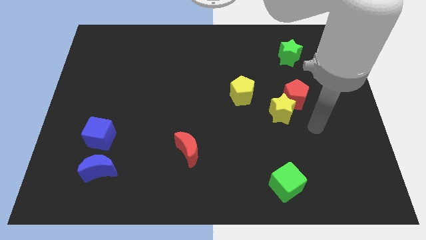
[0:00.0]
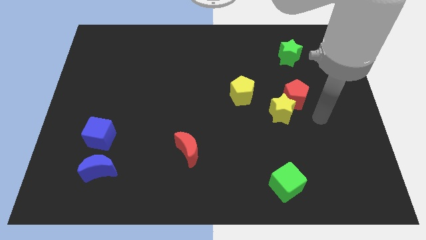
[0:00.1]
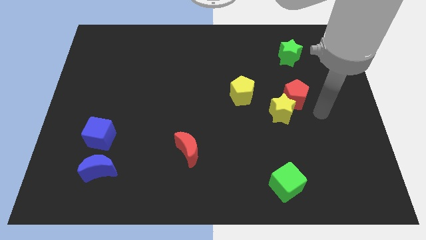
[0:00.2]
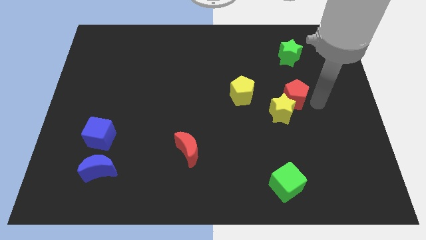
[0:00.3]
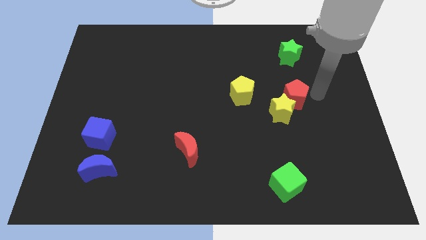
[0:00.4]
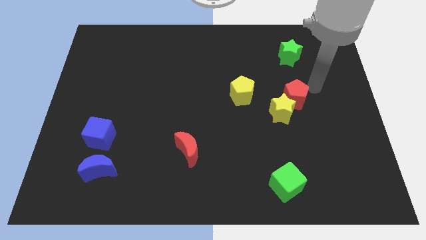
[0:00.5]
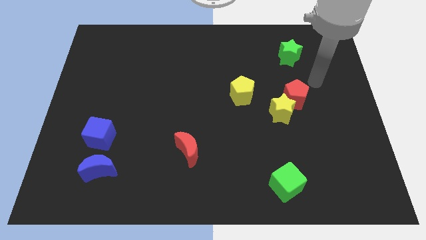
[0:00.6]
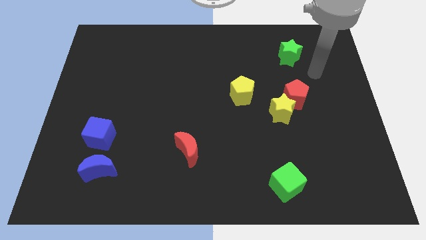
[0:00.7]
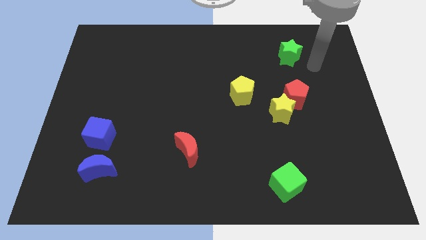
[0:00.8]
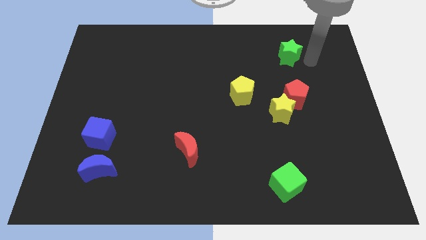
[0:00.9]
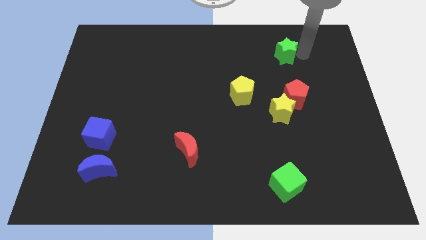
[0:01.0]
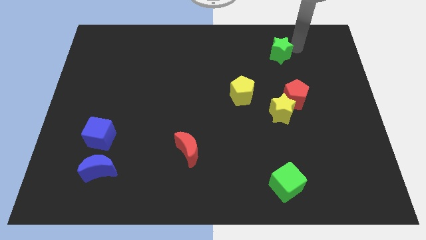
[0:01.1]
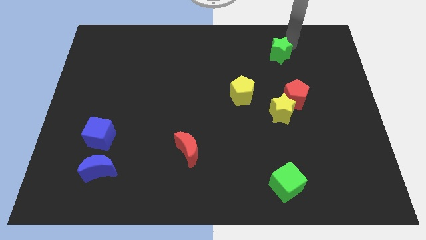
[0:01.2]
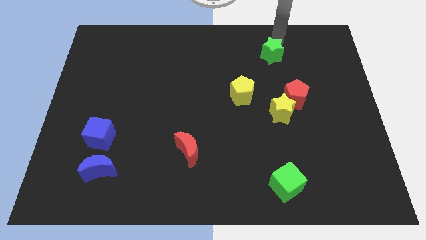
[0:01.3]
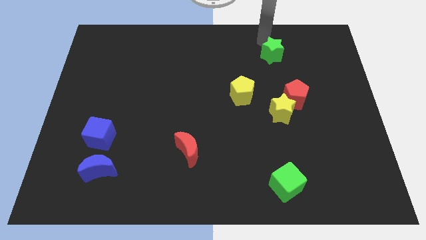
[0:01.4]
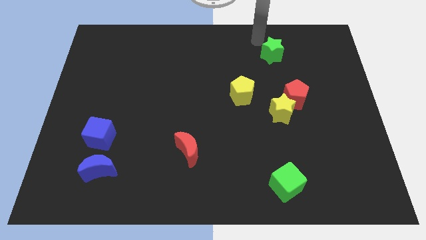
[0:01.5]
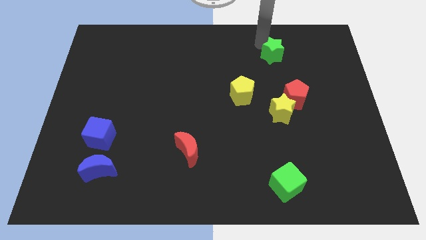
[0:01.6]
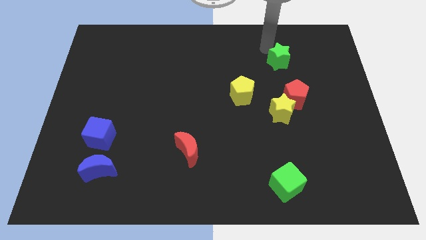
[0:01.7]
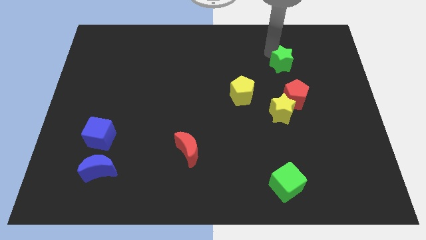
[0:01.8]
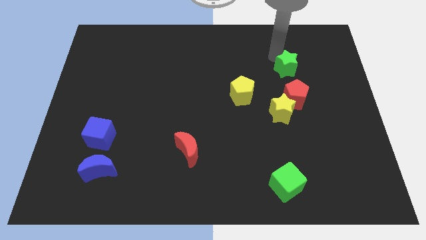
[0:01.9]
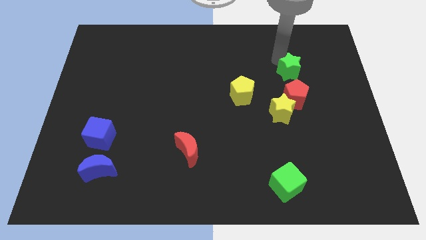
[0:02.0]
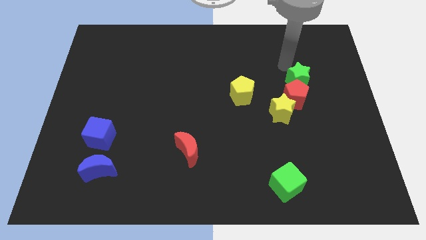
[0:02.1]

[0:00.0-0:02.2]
slide the green star down a little

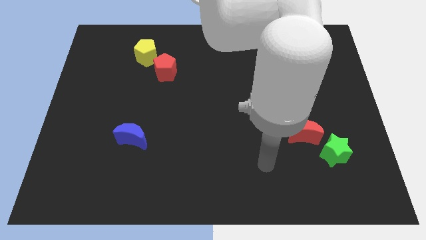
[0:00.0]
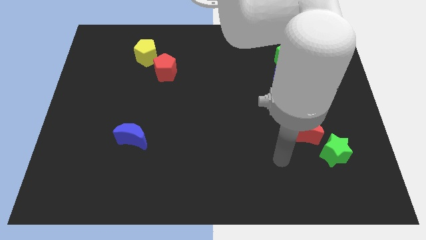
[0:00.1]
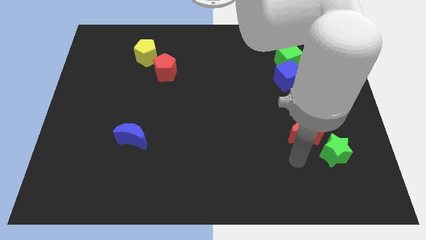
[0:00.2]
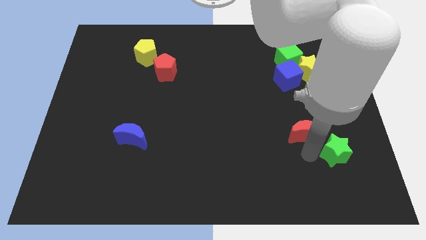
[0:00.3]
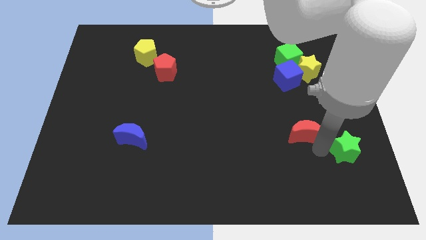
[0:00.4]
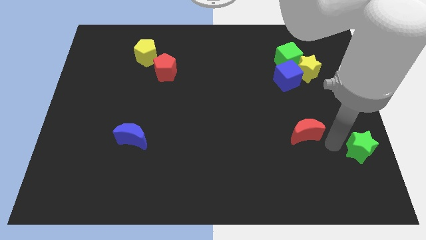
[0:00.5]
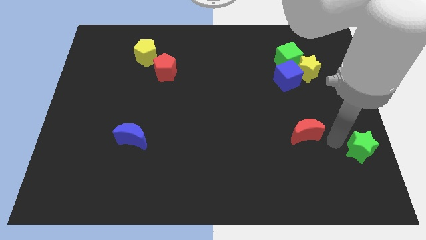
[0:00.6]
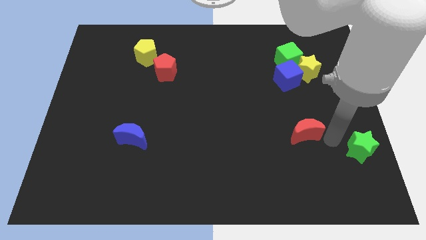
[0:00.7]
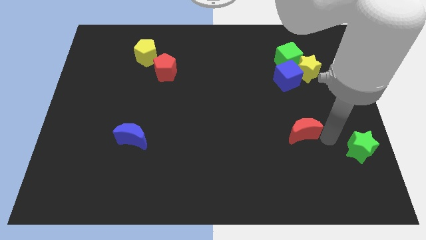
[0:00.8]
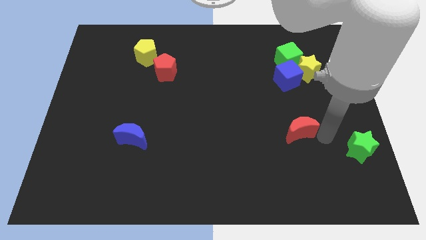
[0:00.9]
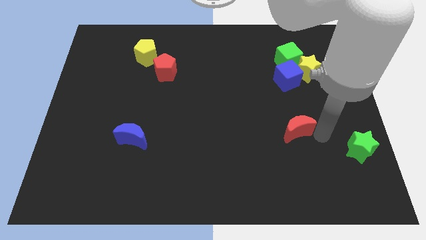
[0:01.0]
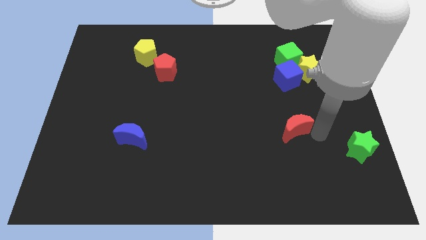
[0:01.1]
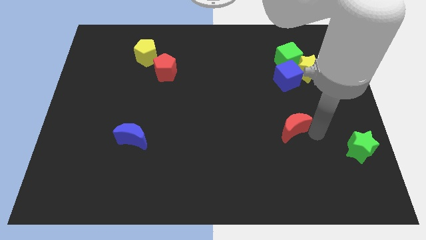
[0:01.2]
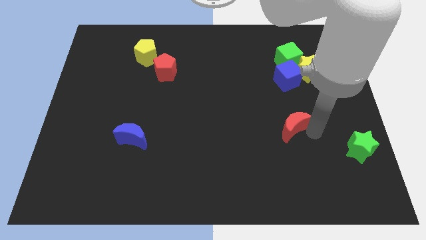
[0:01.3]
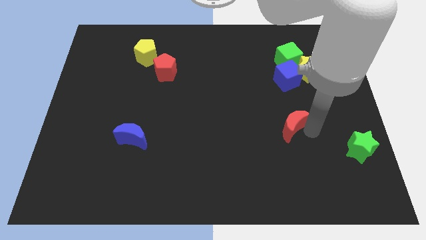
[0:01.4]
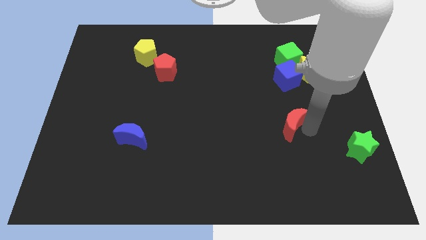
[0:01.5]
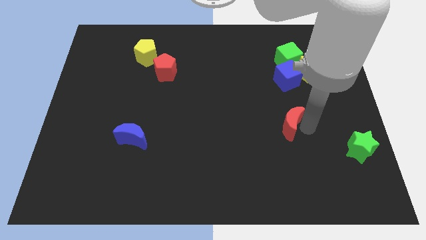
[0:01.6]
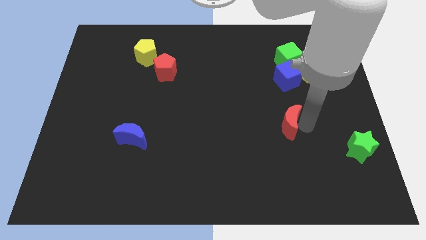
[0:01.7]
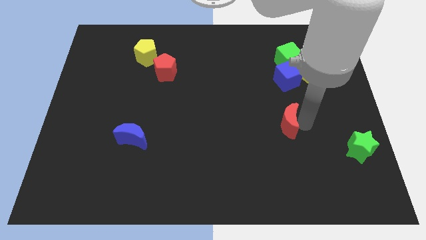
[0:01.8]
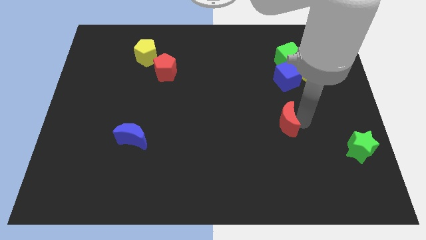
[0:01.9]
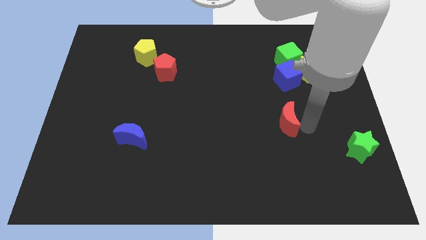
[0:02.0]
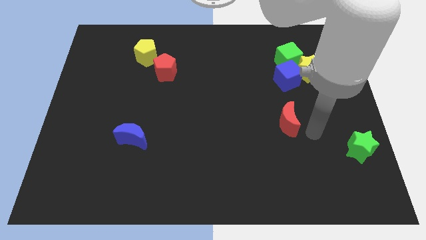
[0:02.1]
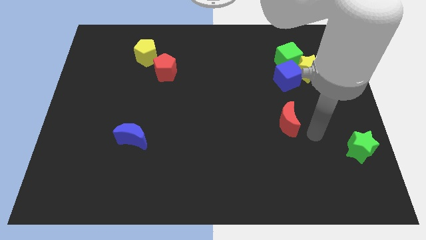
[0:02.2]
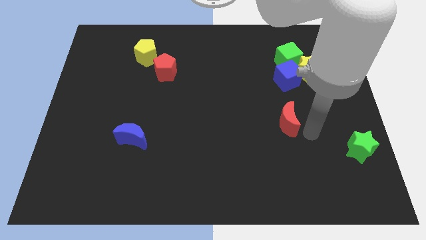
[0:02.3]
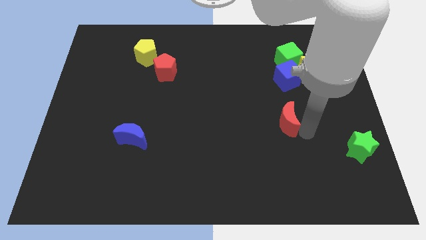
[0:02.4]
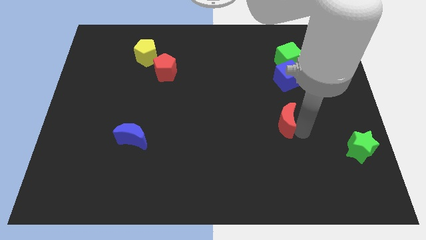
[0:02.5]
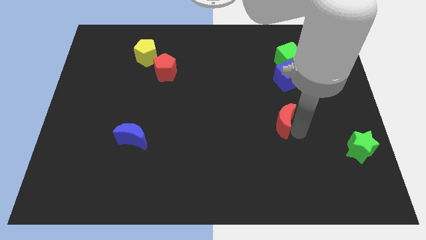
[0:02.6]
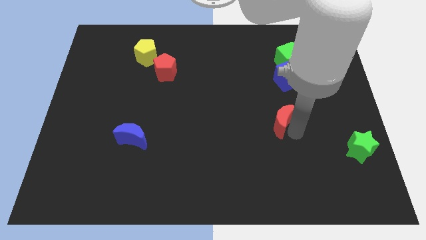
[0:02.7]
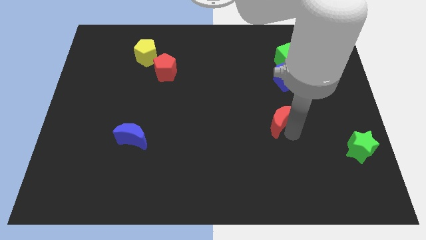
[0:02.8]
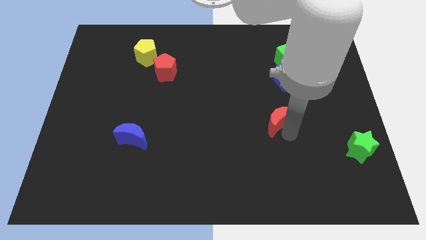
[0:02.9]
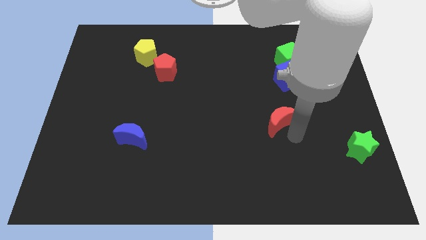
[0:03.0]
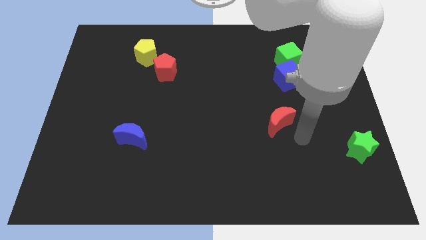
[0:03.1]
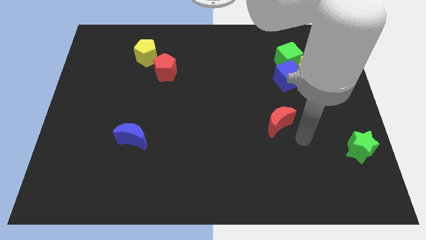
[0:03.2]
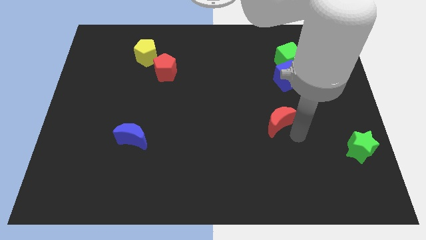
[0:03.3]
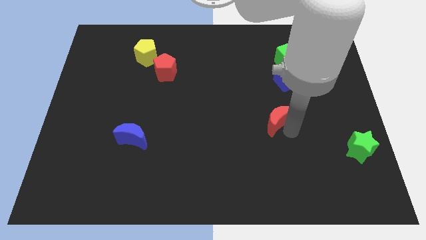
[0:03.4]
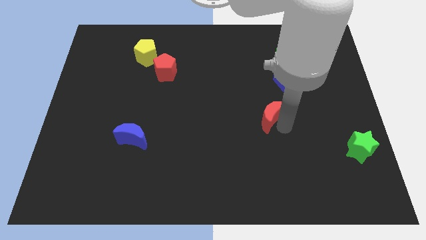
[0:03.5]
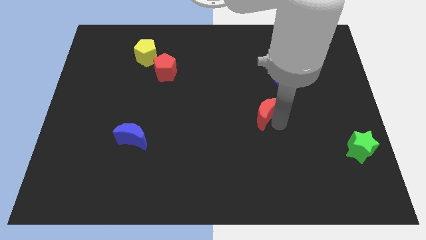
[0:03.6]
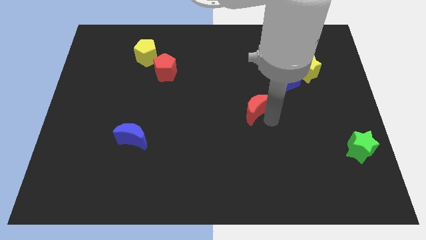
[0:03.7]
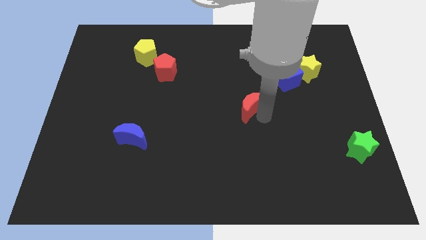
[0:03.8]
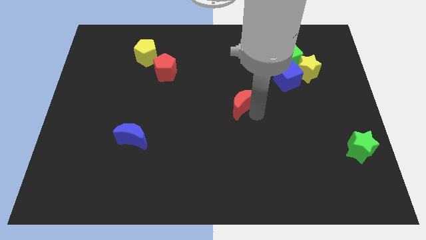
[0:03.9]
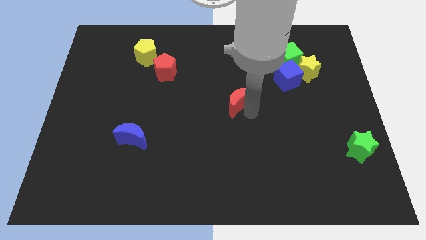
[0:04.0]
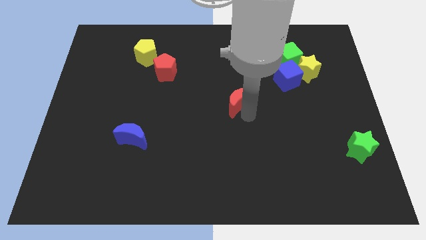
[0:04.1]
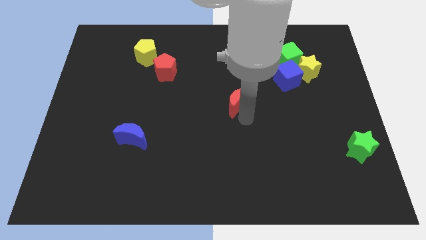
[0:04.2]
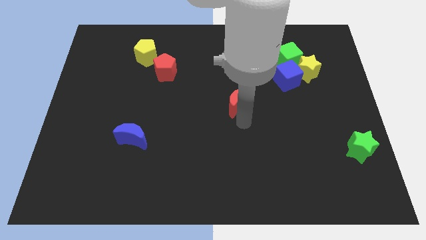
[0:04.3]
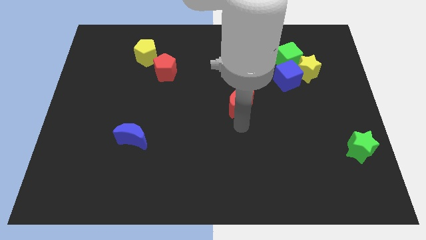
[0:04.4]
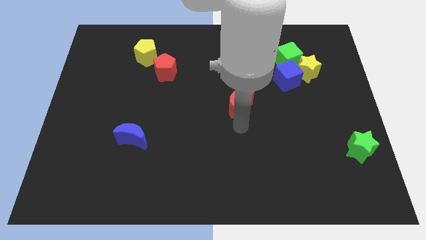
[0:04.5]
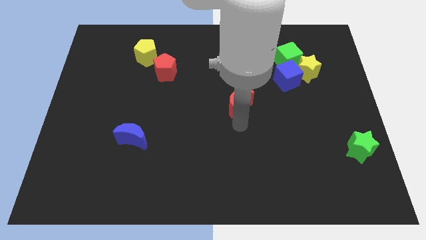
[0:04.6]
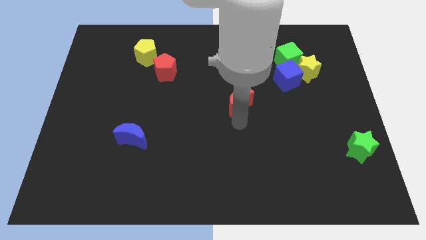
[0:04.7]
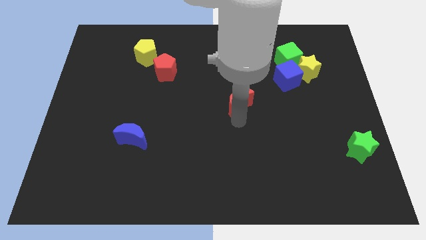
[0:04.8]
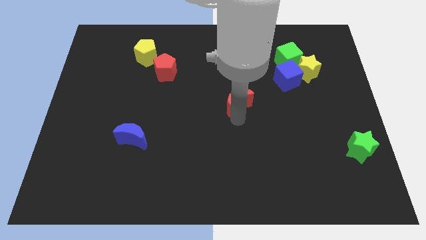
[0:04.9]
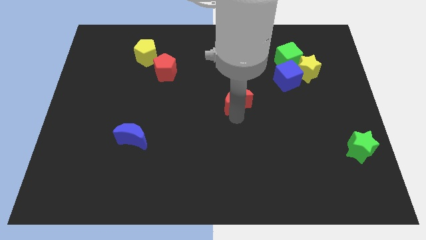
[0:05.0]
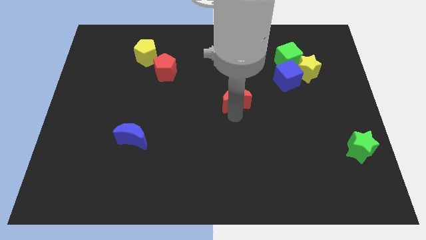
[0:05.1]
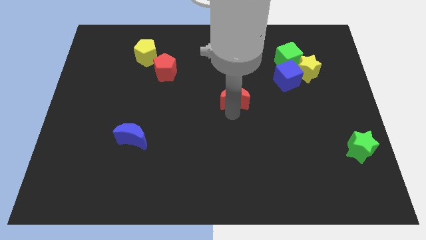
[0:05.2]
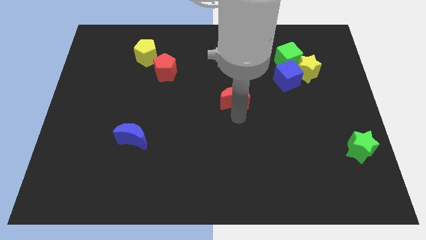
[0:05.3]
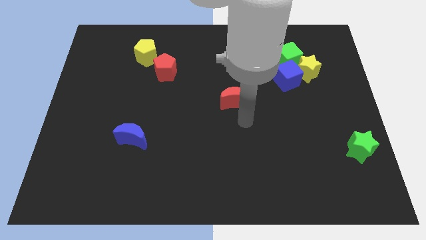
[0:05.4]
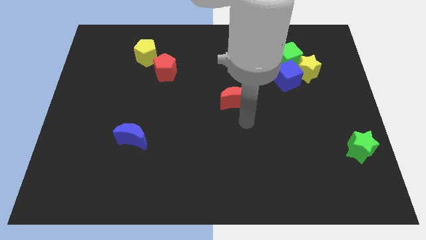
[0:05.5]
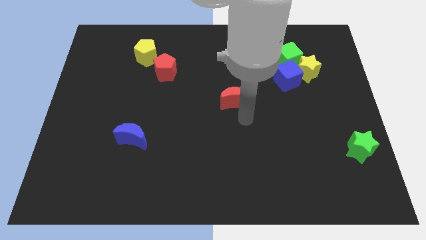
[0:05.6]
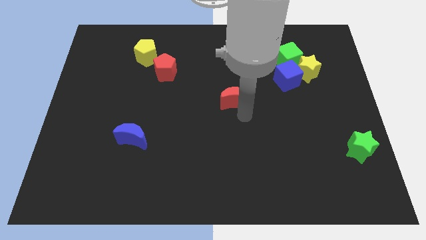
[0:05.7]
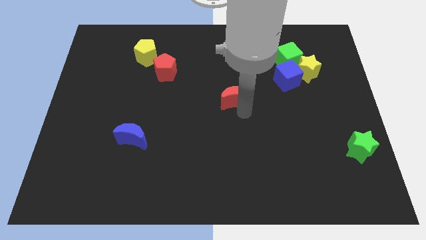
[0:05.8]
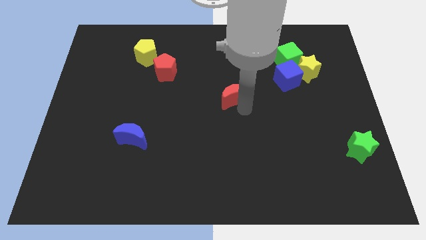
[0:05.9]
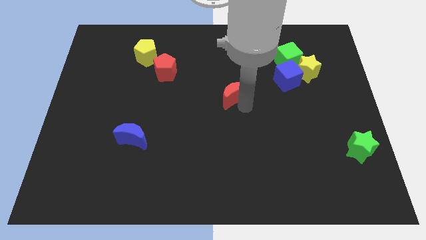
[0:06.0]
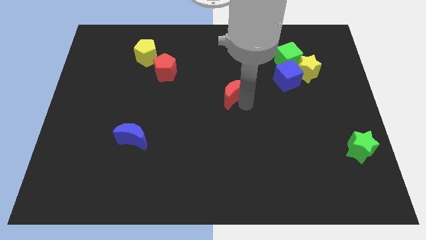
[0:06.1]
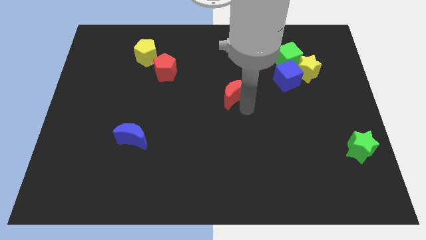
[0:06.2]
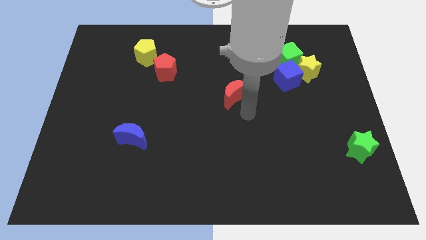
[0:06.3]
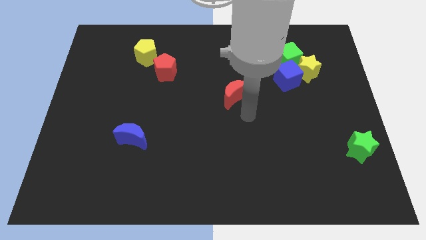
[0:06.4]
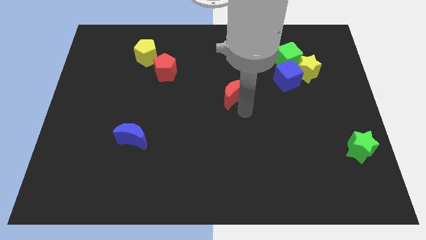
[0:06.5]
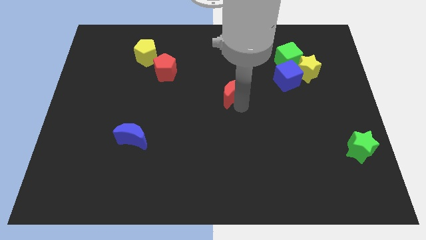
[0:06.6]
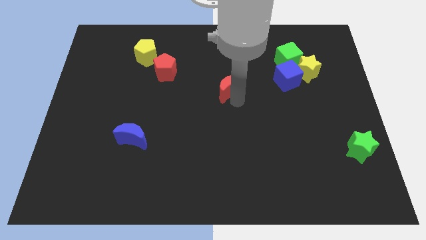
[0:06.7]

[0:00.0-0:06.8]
slide the red moon up and left diagonally
